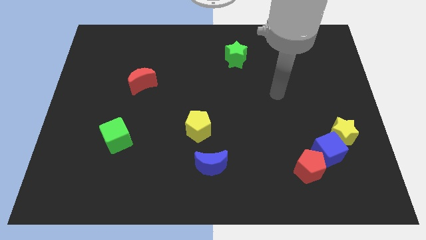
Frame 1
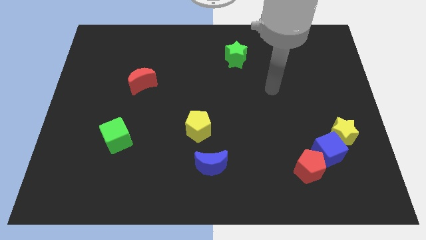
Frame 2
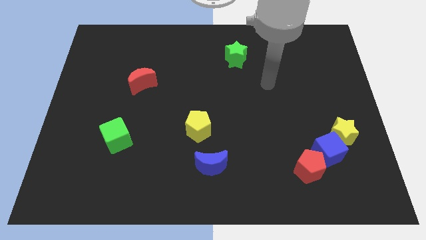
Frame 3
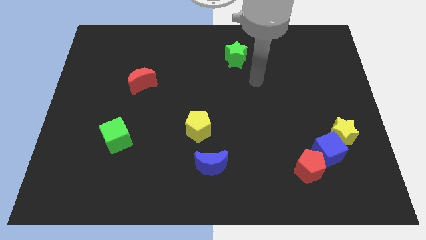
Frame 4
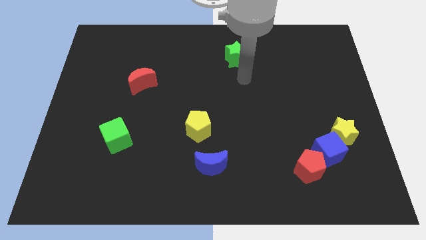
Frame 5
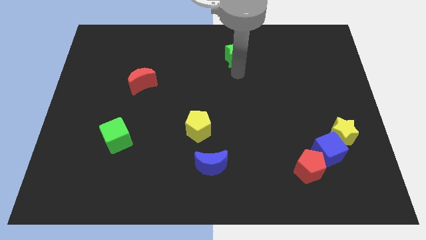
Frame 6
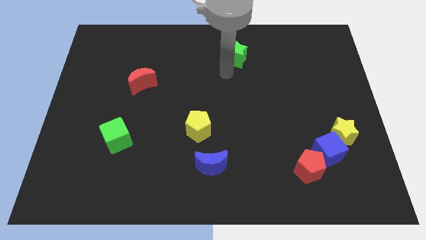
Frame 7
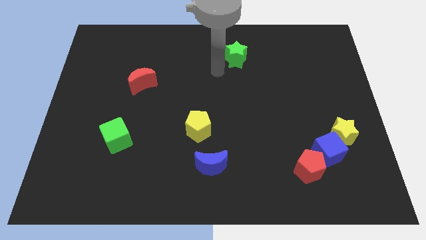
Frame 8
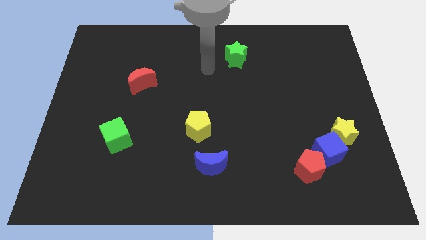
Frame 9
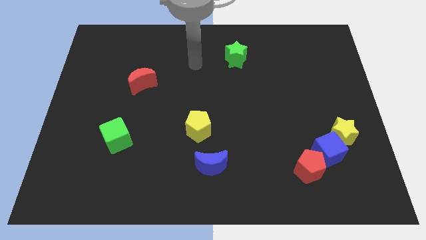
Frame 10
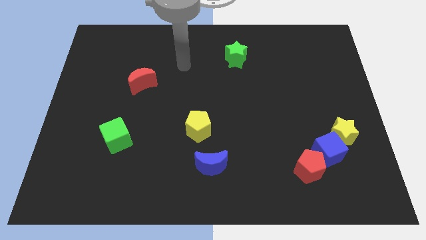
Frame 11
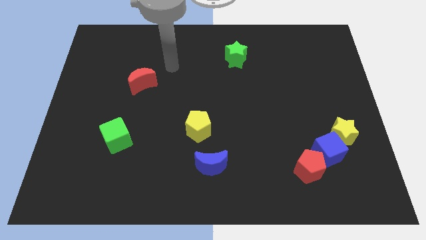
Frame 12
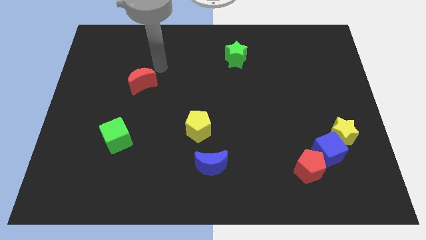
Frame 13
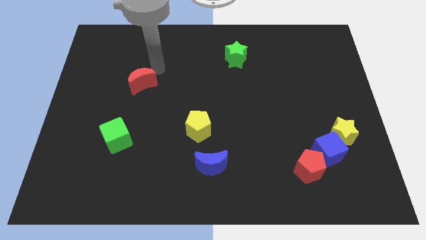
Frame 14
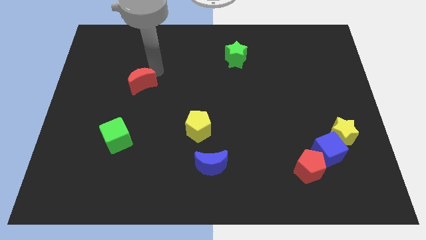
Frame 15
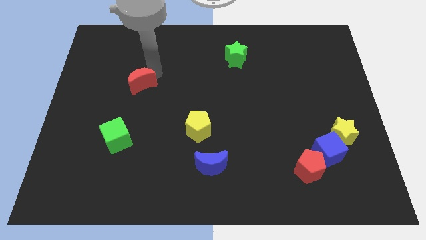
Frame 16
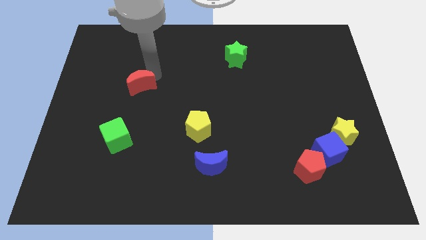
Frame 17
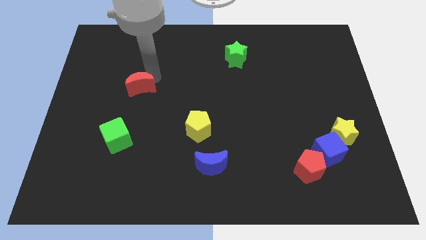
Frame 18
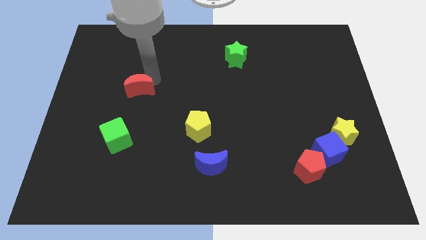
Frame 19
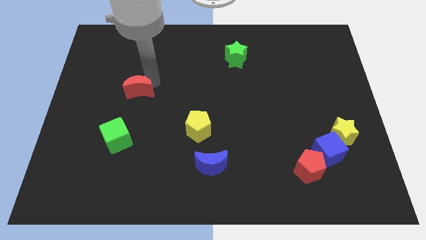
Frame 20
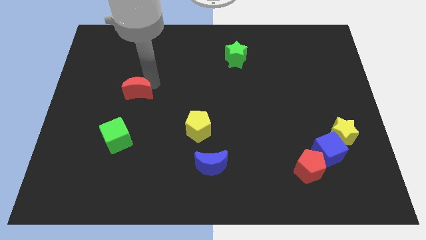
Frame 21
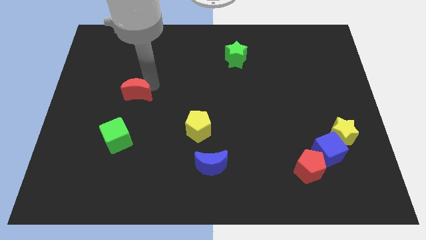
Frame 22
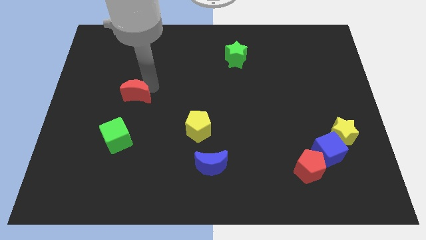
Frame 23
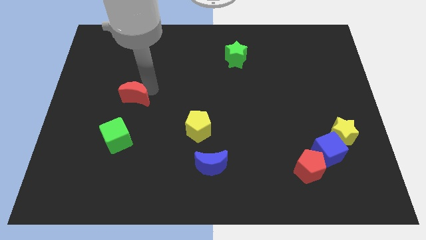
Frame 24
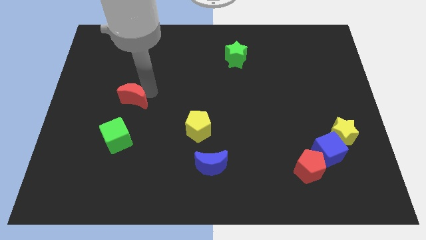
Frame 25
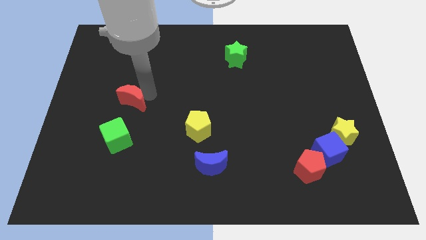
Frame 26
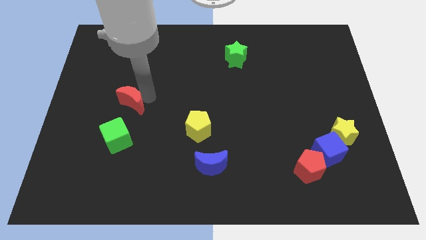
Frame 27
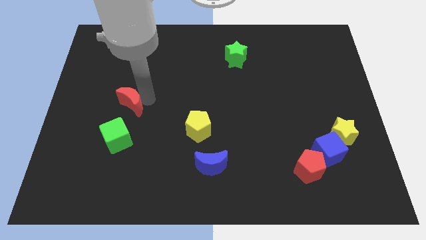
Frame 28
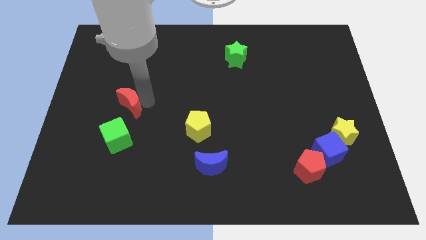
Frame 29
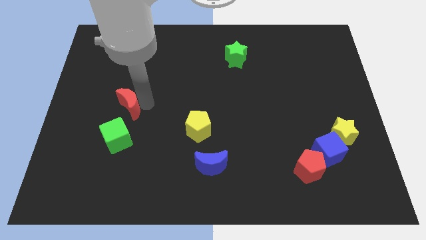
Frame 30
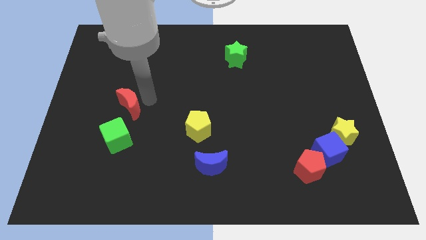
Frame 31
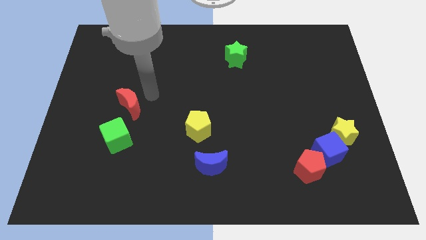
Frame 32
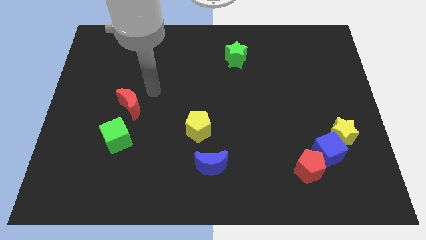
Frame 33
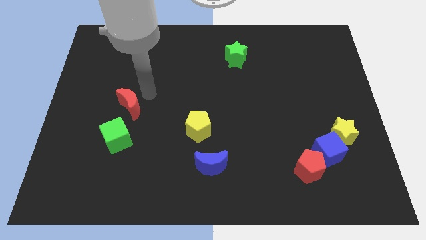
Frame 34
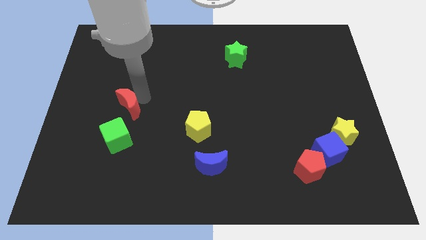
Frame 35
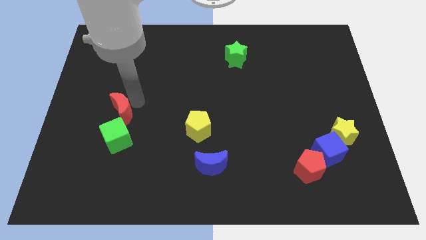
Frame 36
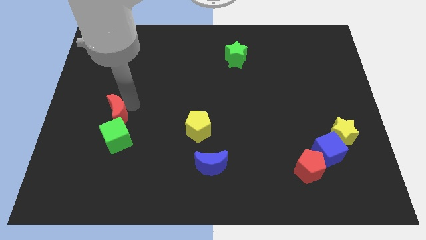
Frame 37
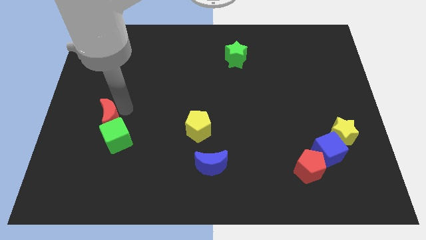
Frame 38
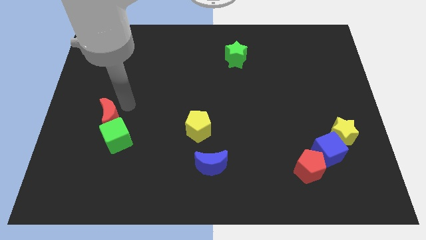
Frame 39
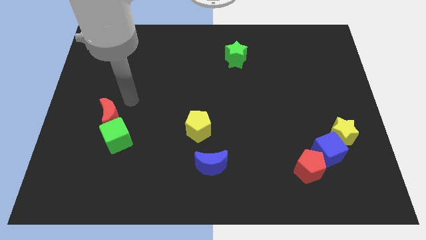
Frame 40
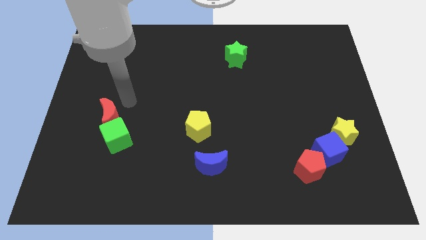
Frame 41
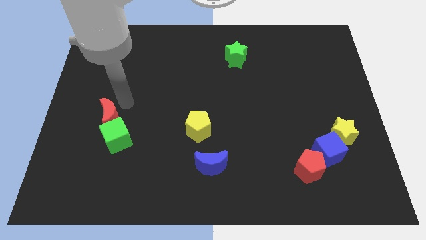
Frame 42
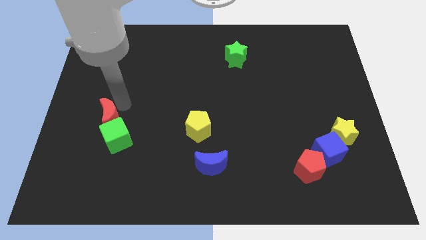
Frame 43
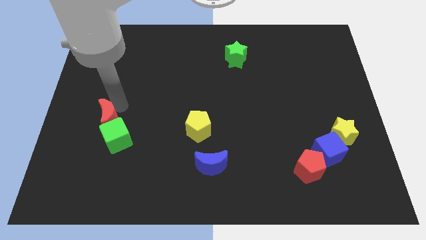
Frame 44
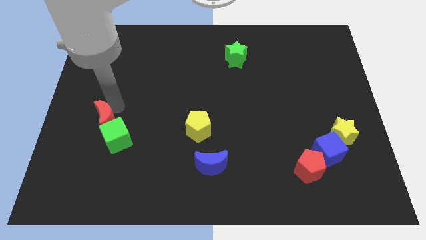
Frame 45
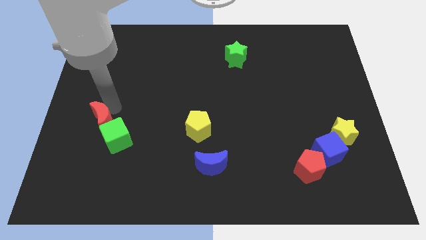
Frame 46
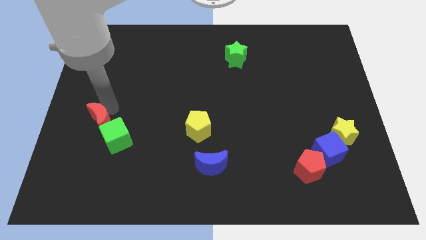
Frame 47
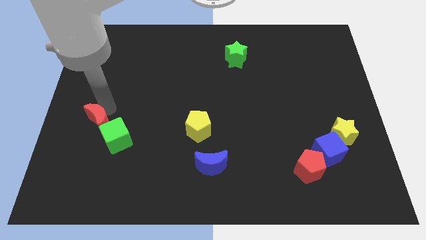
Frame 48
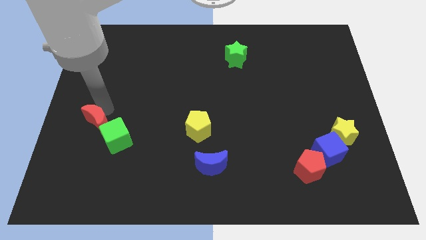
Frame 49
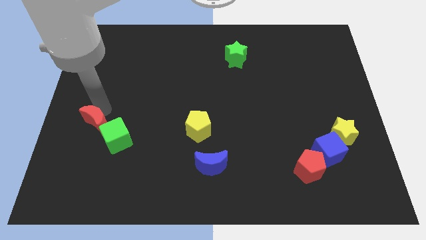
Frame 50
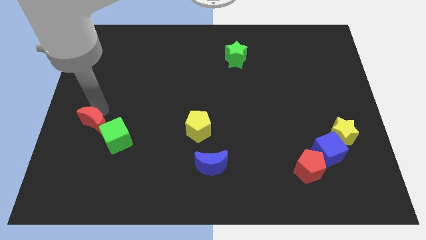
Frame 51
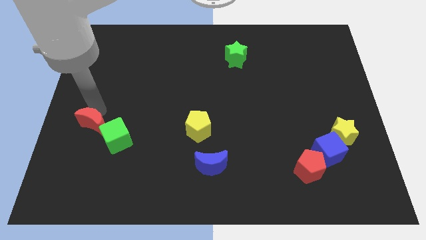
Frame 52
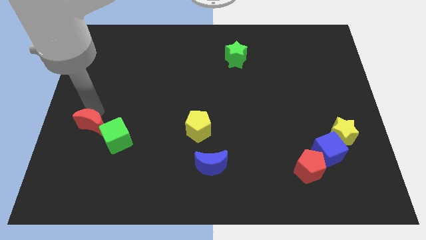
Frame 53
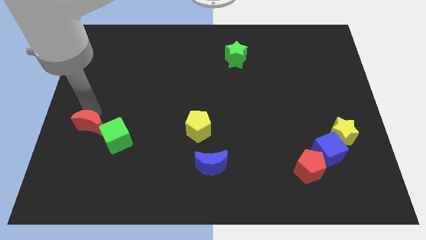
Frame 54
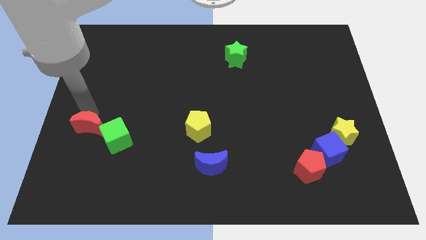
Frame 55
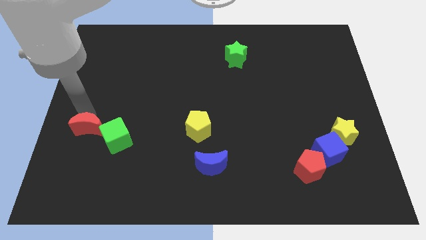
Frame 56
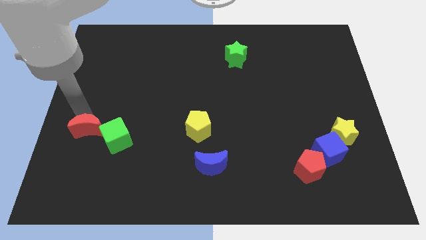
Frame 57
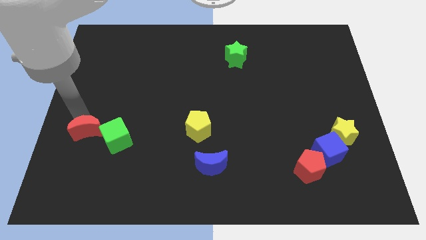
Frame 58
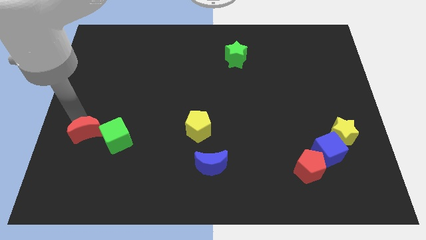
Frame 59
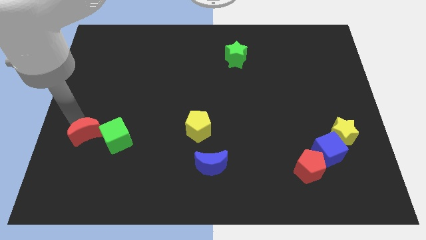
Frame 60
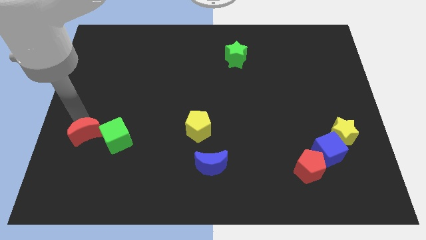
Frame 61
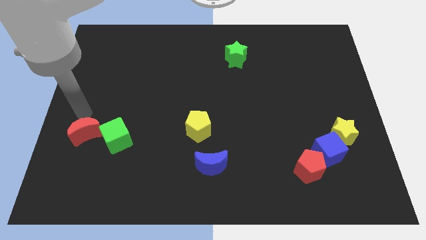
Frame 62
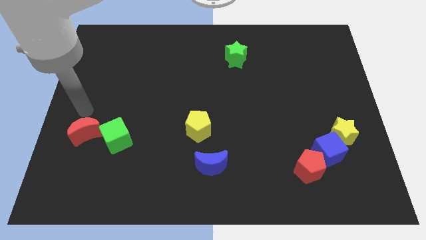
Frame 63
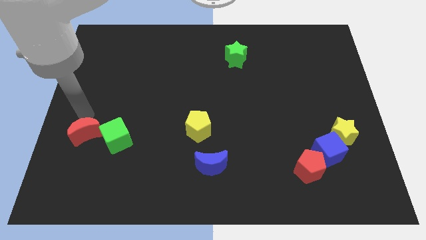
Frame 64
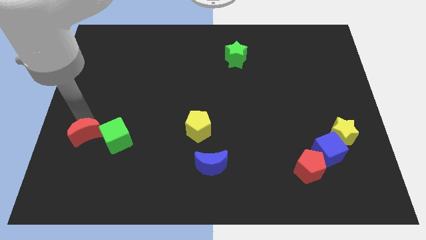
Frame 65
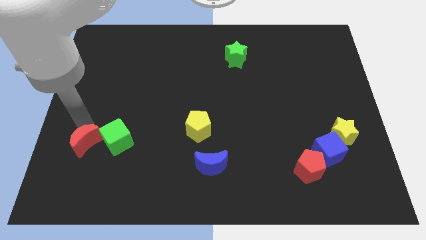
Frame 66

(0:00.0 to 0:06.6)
move the red moon to the bottom left side of the green cube
